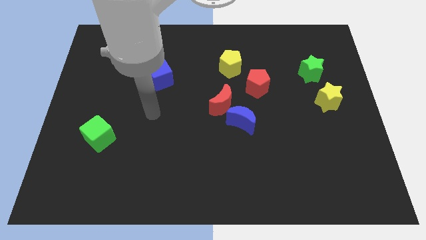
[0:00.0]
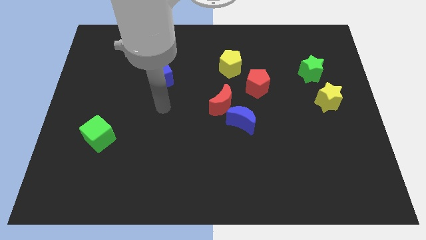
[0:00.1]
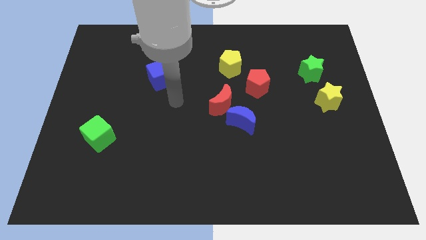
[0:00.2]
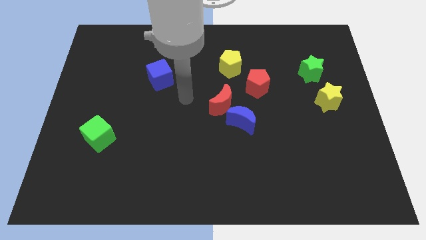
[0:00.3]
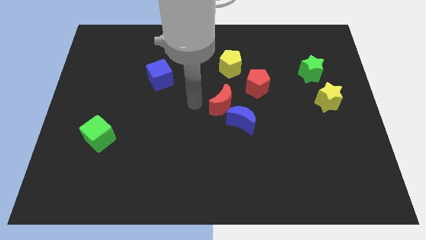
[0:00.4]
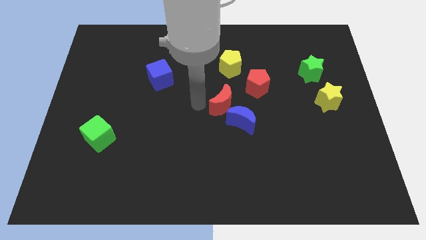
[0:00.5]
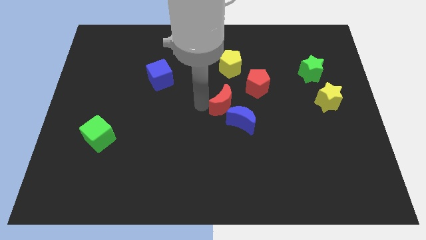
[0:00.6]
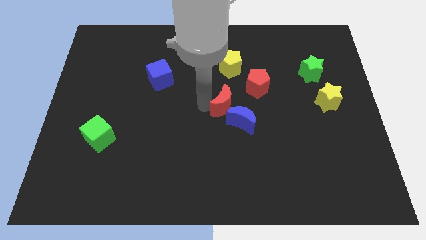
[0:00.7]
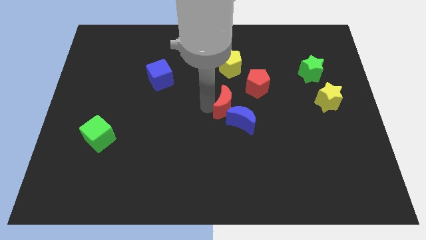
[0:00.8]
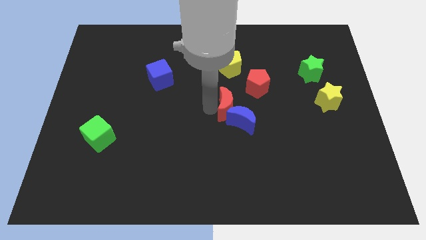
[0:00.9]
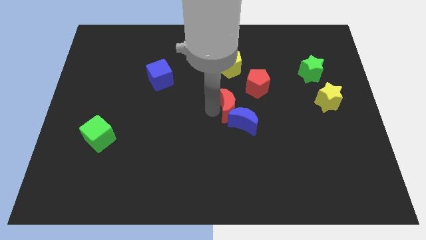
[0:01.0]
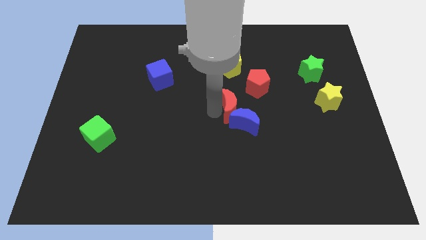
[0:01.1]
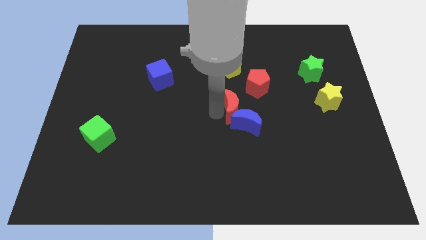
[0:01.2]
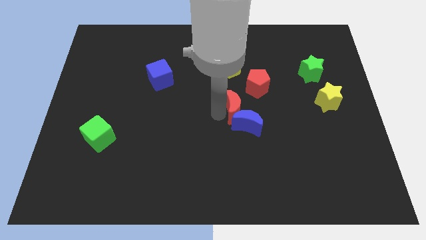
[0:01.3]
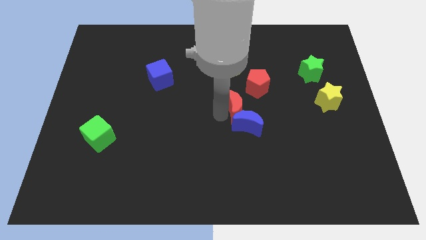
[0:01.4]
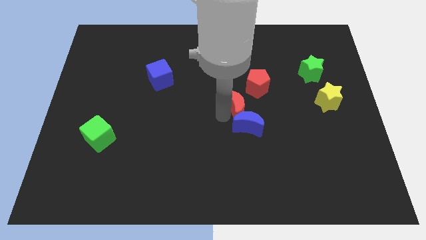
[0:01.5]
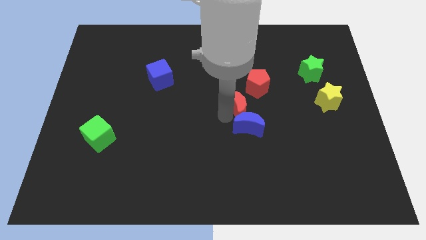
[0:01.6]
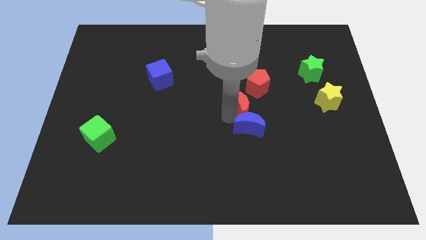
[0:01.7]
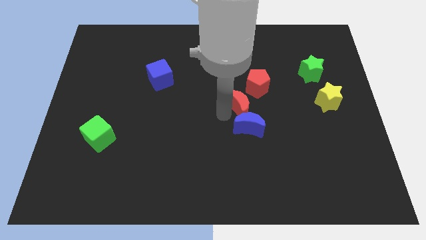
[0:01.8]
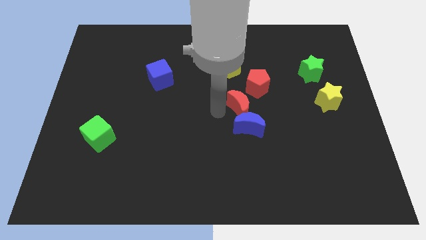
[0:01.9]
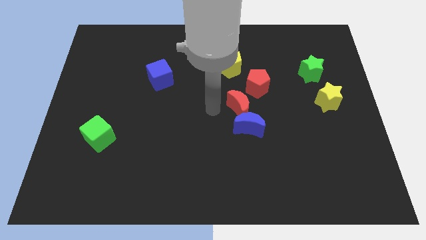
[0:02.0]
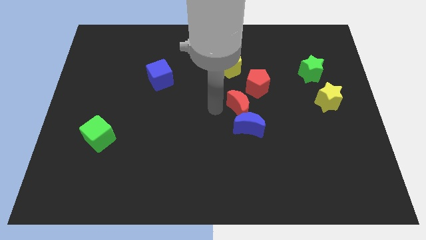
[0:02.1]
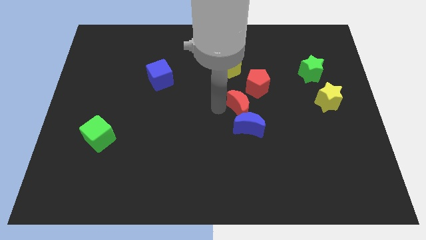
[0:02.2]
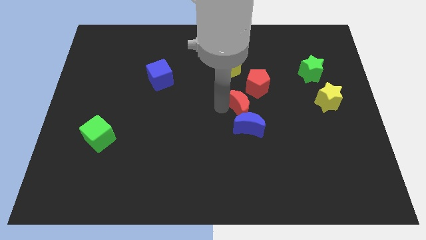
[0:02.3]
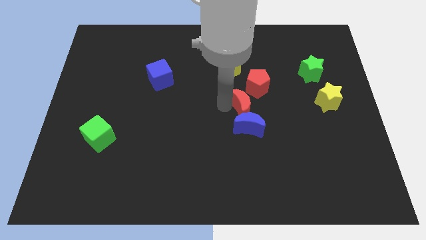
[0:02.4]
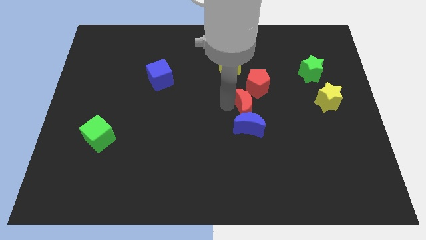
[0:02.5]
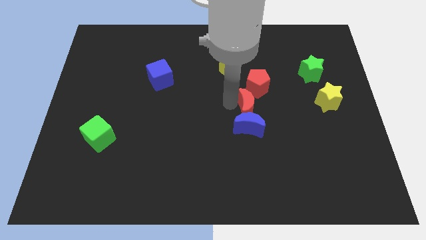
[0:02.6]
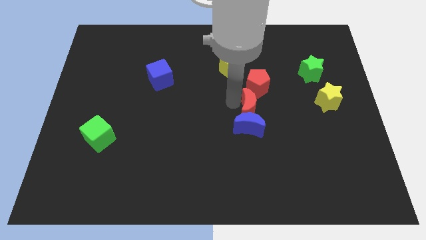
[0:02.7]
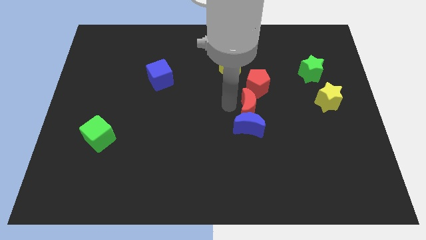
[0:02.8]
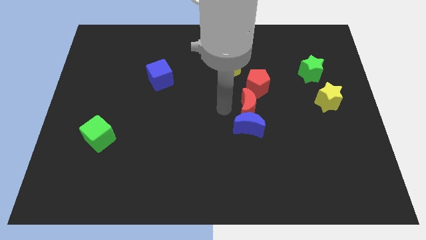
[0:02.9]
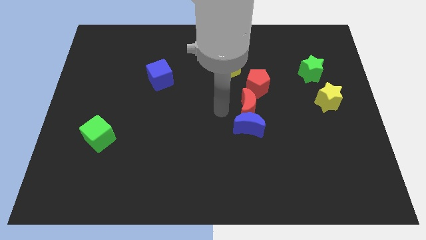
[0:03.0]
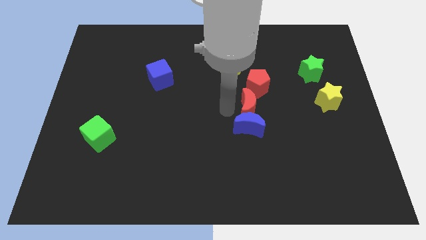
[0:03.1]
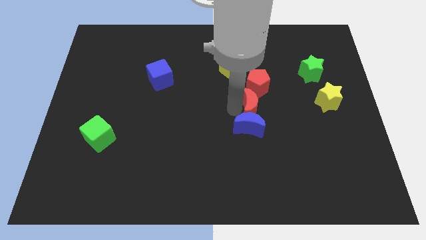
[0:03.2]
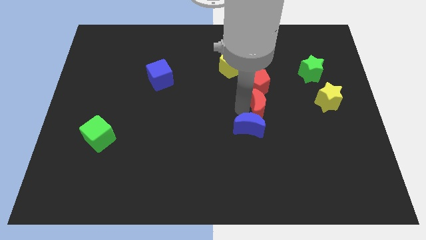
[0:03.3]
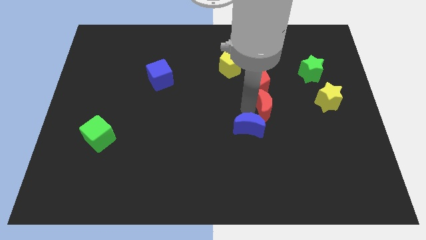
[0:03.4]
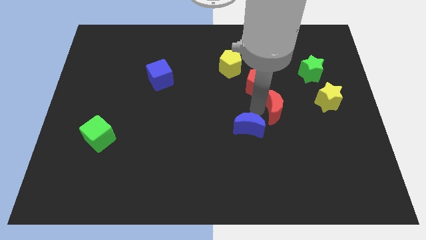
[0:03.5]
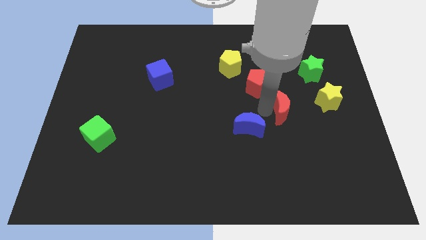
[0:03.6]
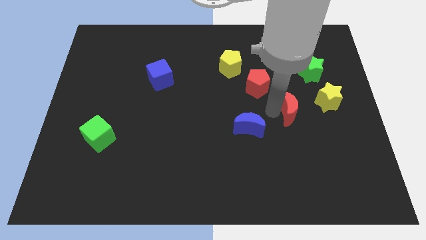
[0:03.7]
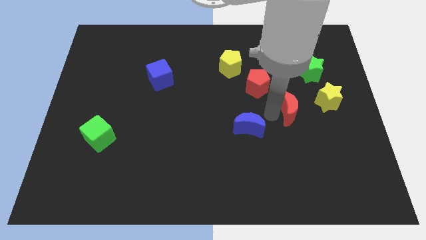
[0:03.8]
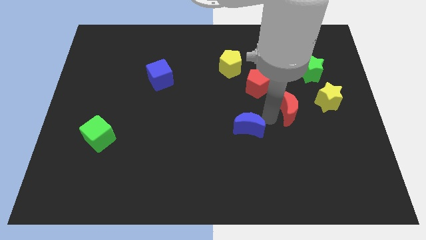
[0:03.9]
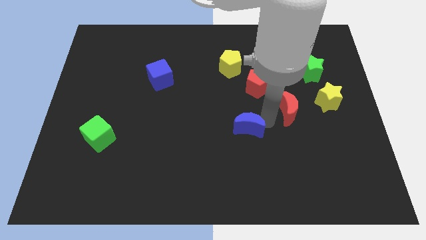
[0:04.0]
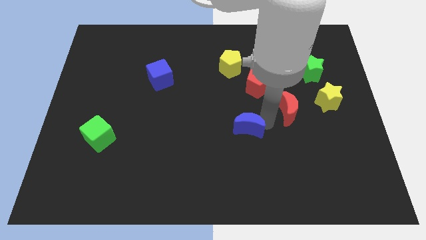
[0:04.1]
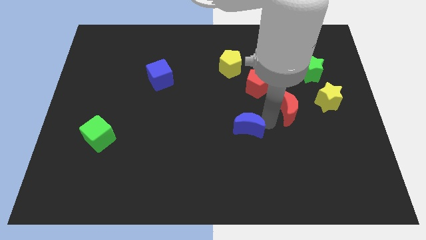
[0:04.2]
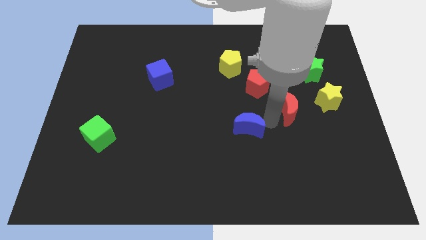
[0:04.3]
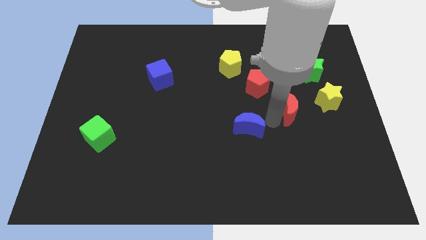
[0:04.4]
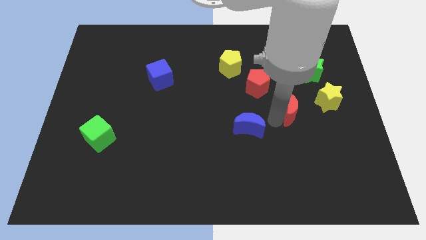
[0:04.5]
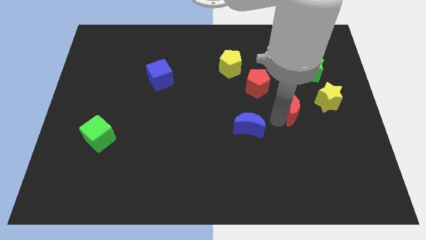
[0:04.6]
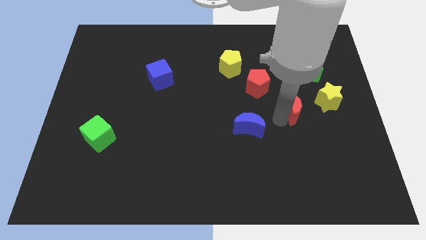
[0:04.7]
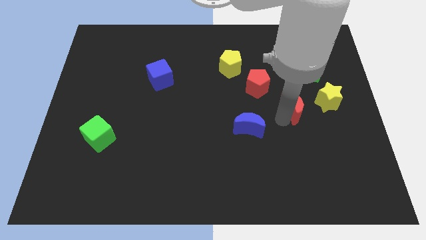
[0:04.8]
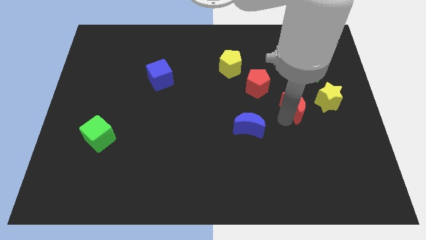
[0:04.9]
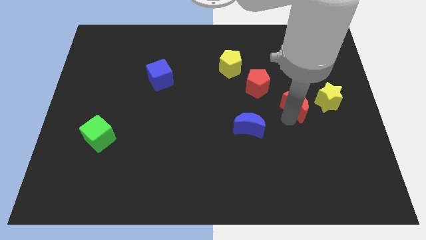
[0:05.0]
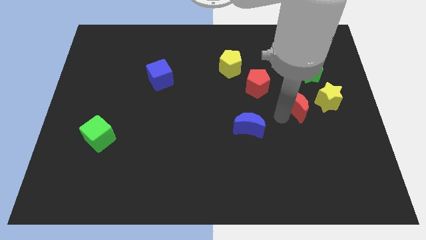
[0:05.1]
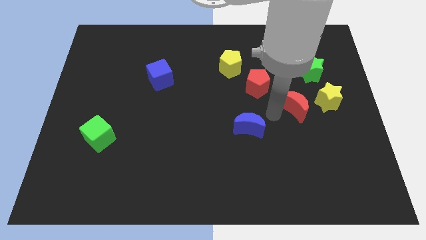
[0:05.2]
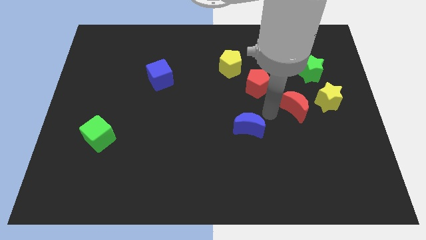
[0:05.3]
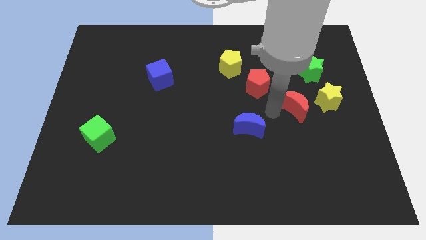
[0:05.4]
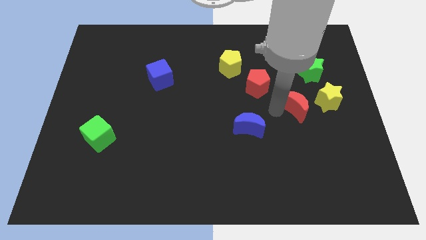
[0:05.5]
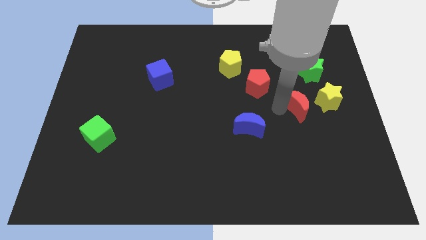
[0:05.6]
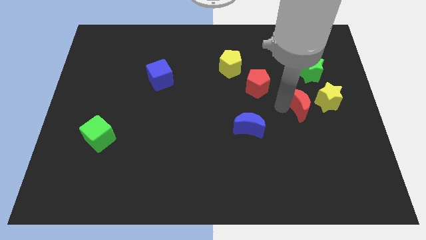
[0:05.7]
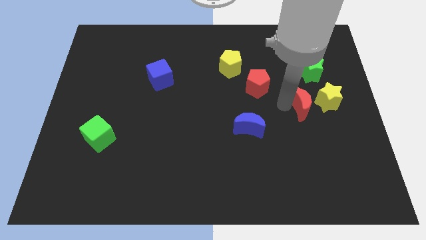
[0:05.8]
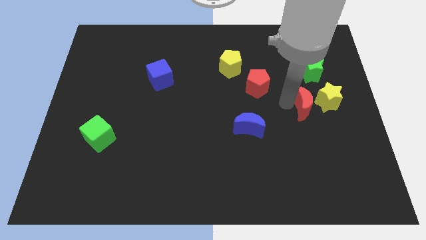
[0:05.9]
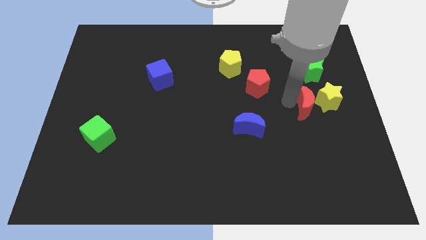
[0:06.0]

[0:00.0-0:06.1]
push the red moon next to the yellow star
